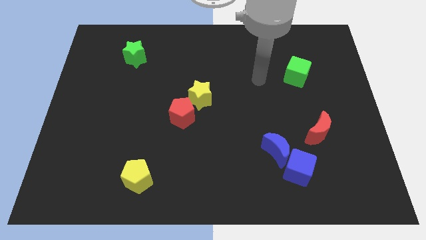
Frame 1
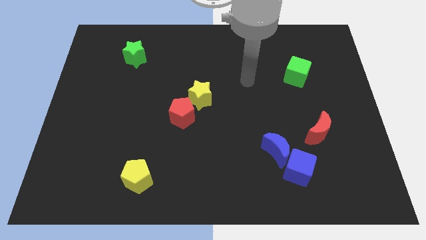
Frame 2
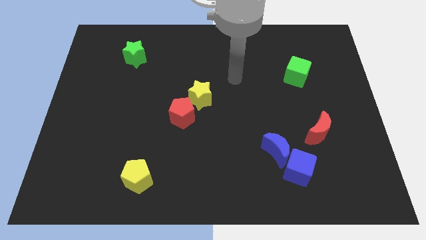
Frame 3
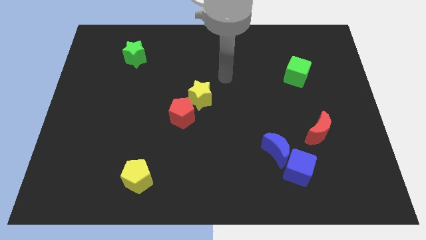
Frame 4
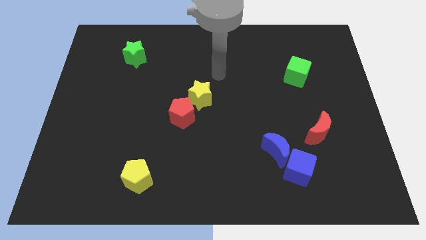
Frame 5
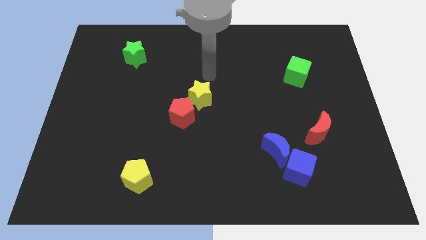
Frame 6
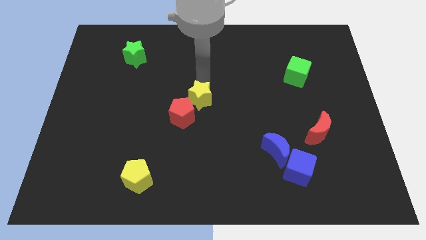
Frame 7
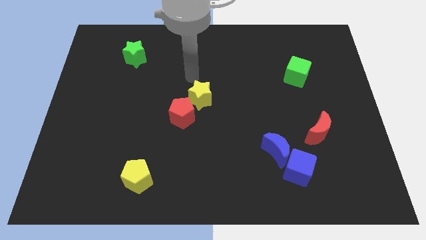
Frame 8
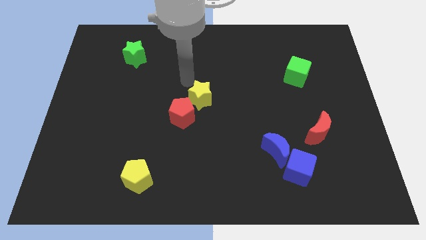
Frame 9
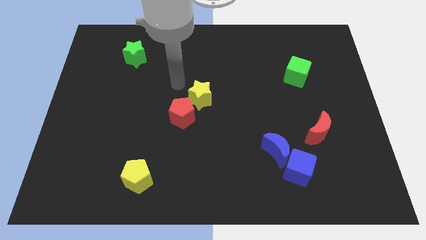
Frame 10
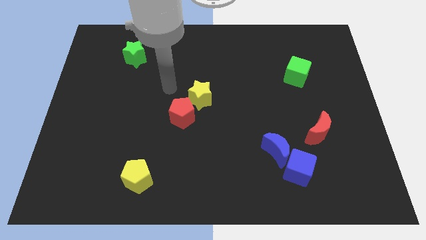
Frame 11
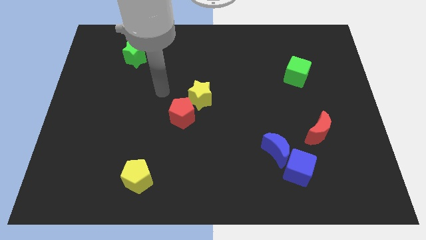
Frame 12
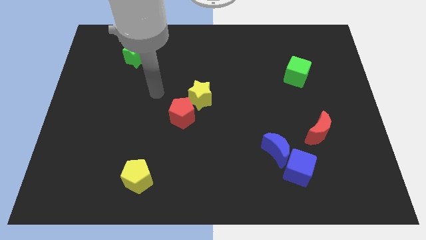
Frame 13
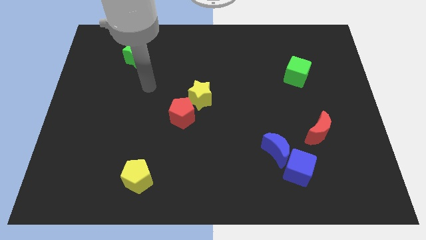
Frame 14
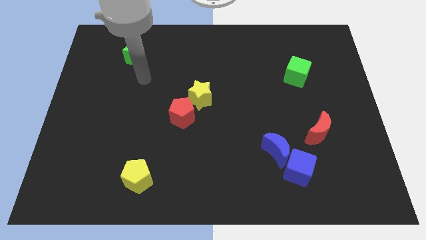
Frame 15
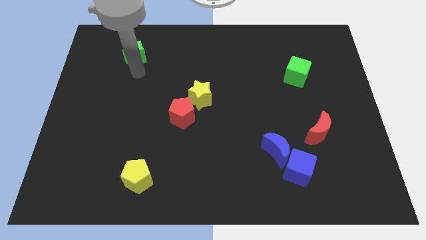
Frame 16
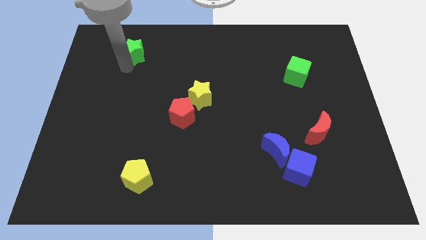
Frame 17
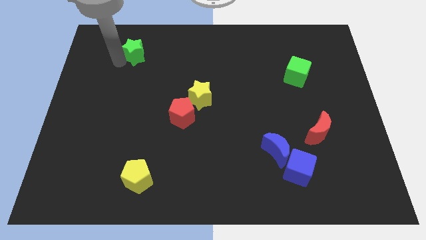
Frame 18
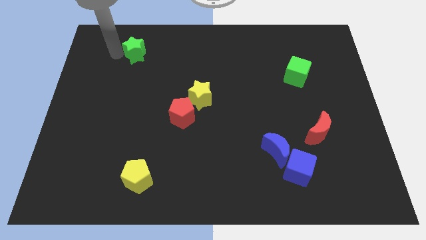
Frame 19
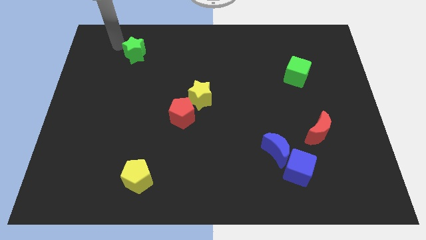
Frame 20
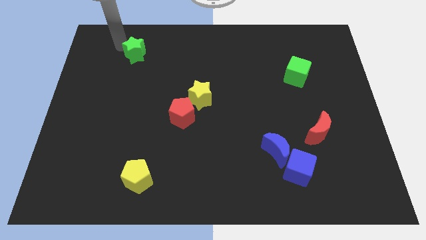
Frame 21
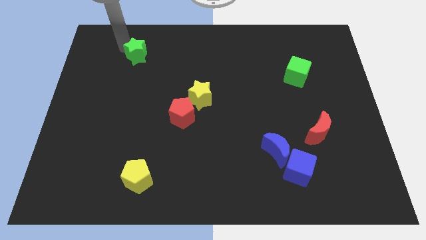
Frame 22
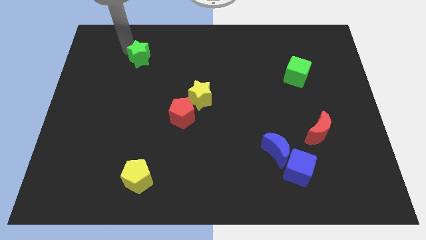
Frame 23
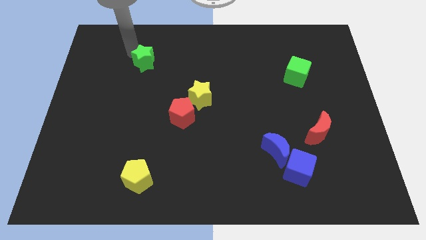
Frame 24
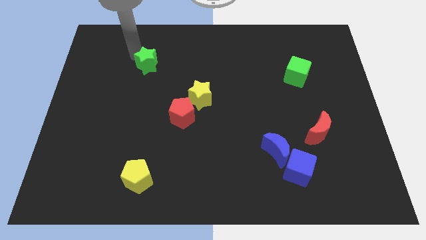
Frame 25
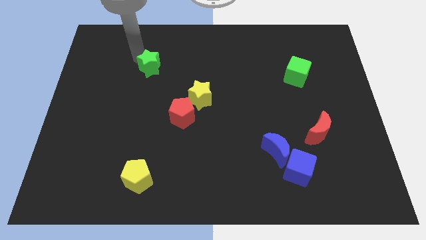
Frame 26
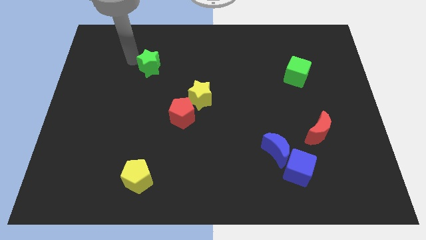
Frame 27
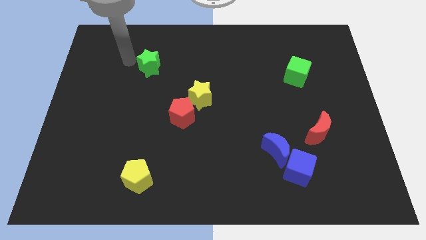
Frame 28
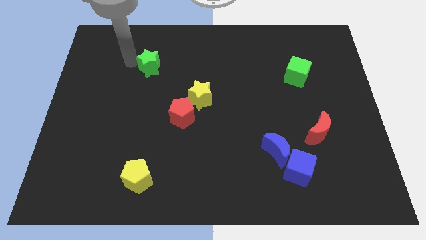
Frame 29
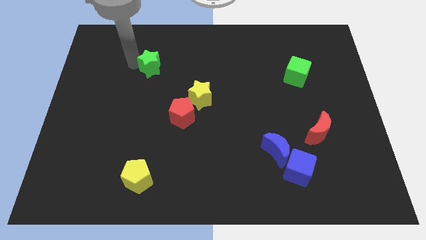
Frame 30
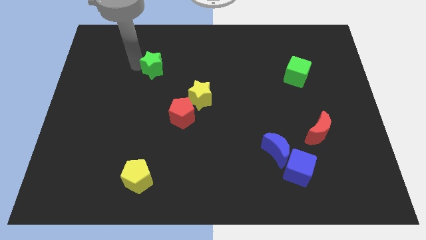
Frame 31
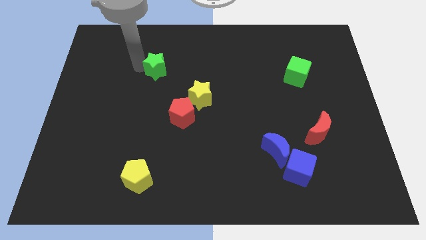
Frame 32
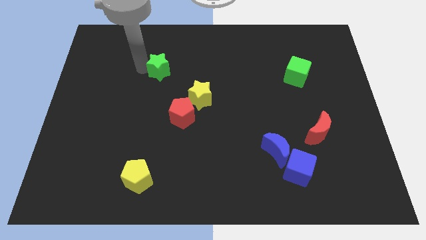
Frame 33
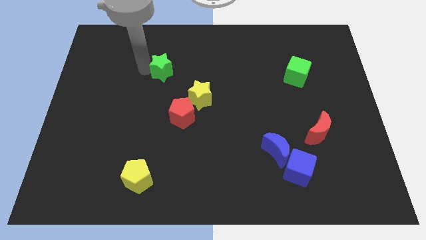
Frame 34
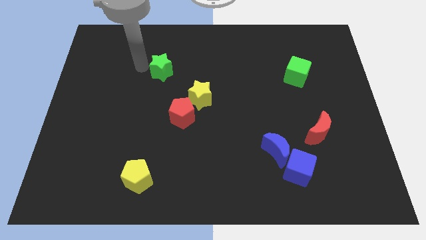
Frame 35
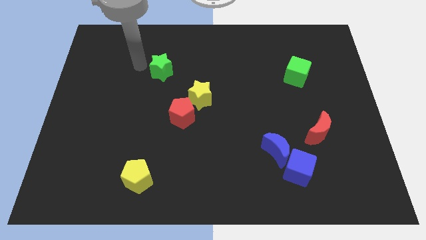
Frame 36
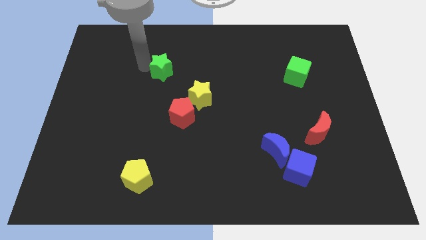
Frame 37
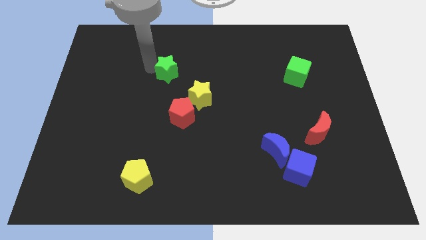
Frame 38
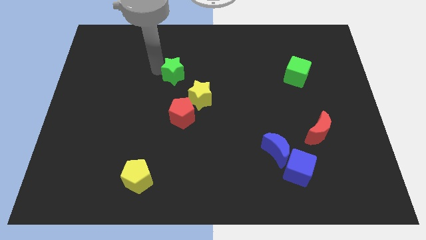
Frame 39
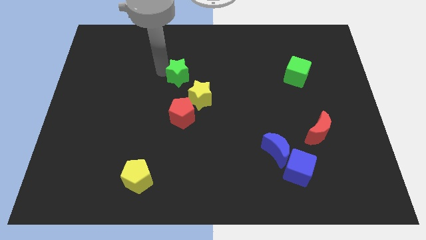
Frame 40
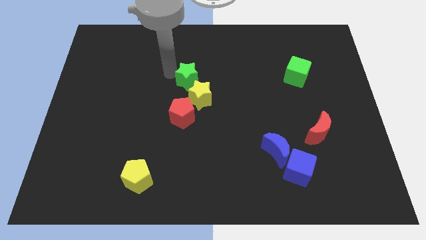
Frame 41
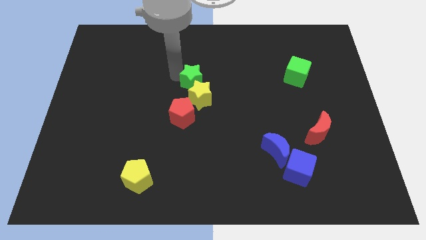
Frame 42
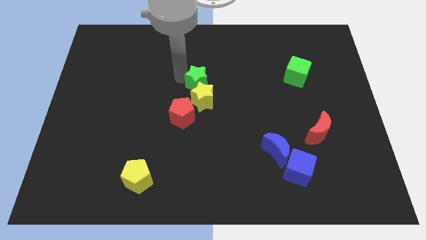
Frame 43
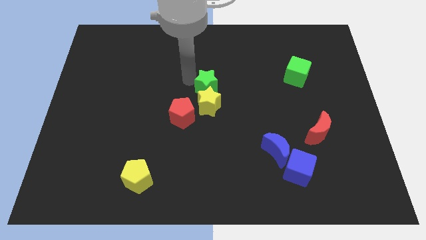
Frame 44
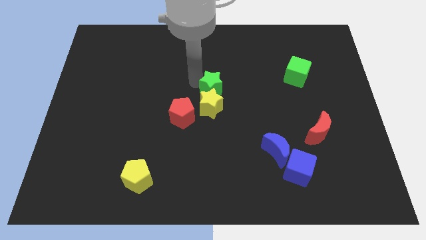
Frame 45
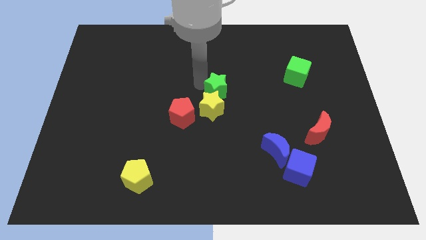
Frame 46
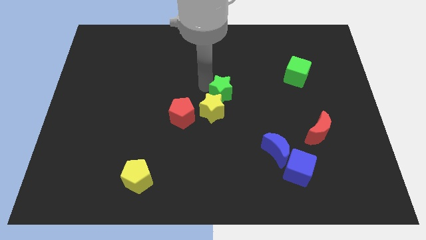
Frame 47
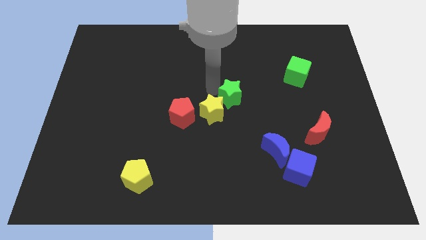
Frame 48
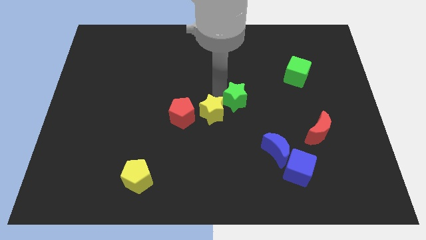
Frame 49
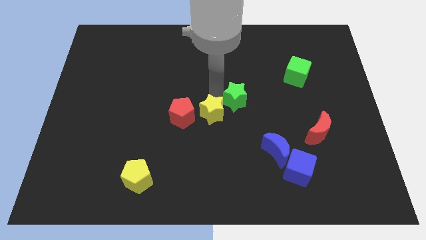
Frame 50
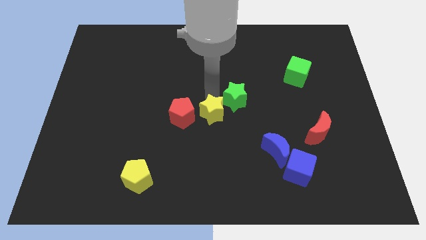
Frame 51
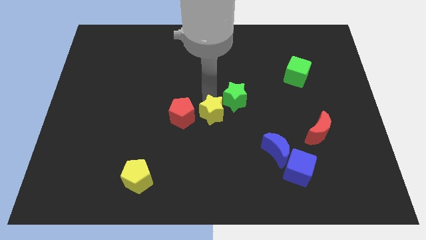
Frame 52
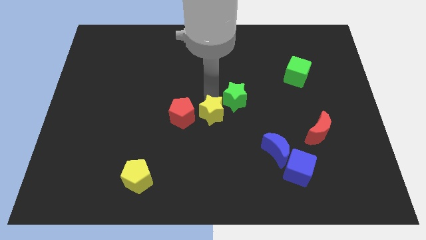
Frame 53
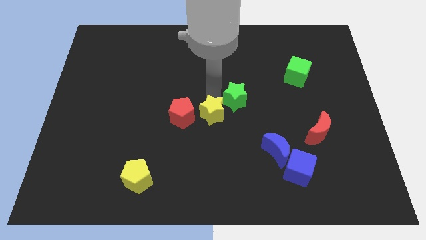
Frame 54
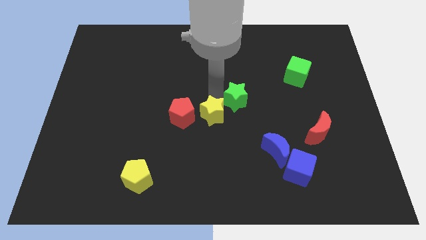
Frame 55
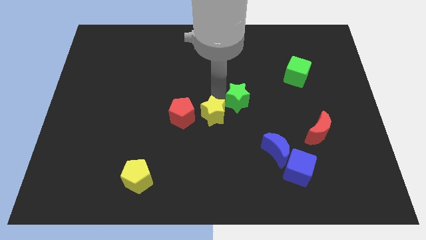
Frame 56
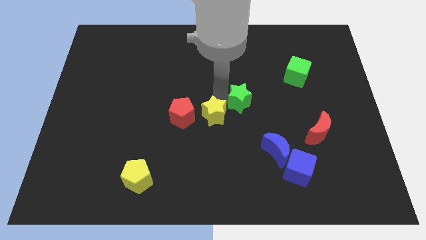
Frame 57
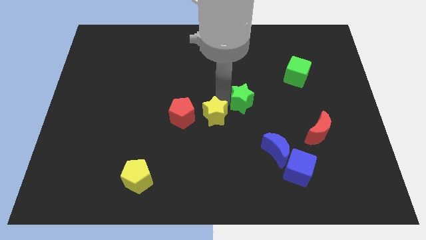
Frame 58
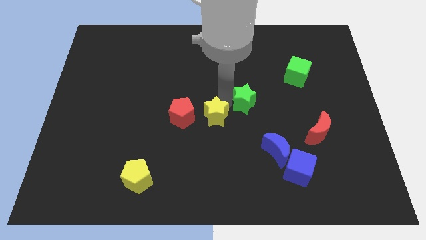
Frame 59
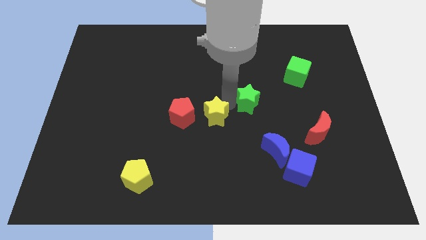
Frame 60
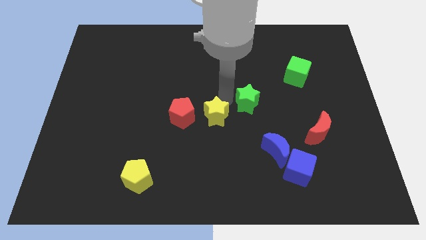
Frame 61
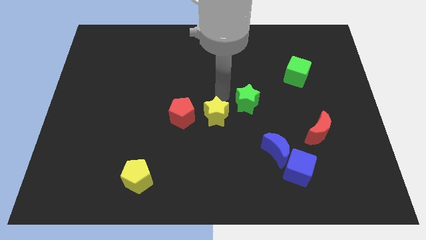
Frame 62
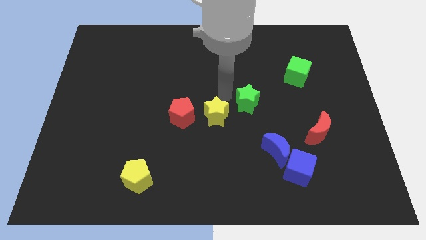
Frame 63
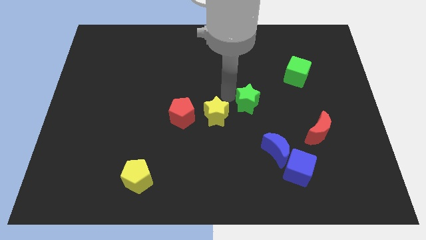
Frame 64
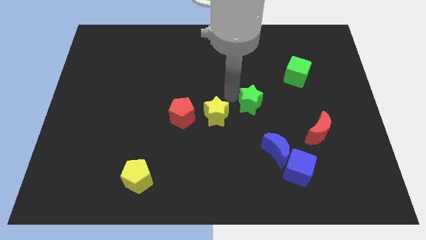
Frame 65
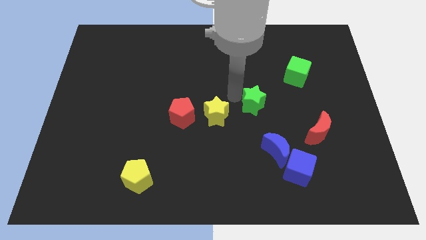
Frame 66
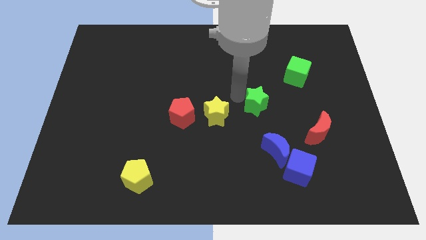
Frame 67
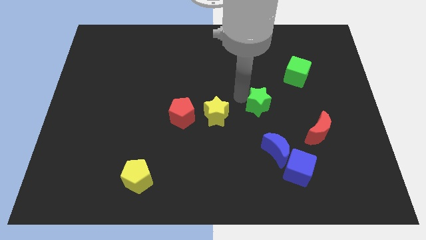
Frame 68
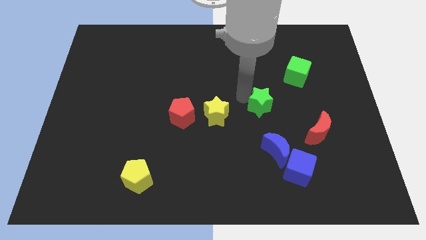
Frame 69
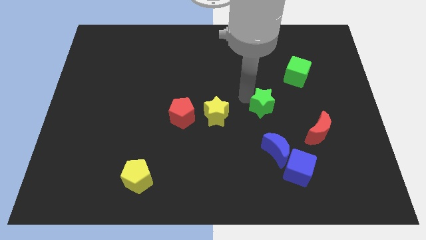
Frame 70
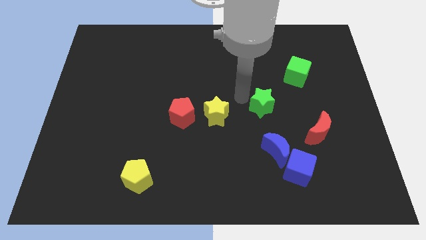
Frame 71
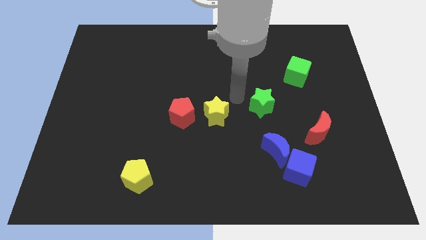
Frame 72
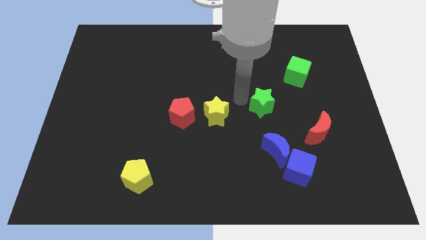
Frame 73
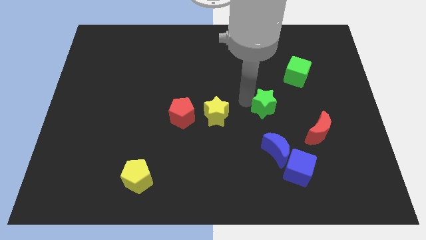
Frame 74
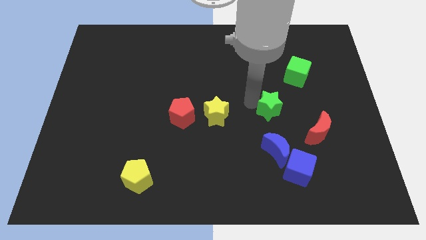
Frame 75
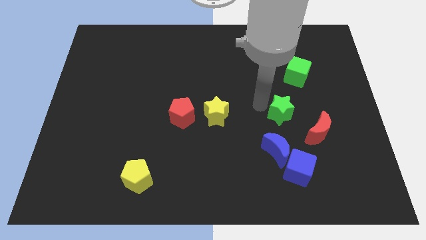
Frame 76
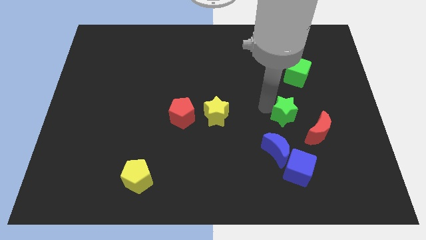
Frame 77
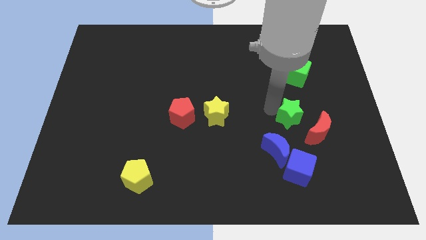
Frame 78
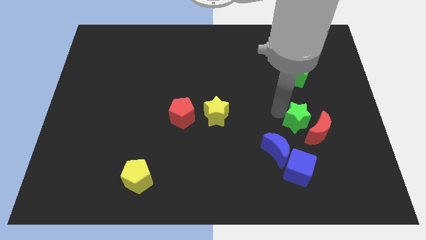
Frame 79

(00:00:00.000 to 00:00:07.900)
push the green star towards the red moon
